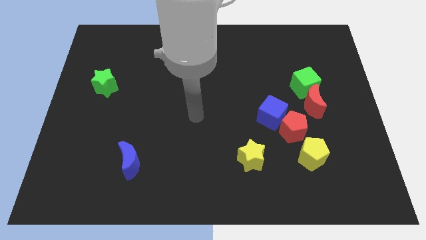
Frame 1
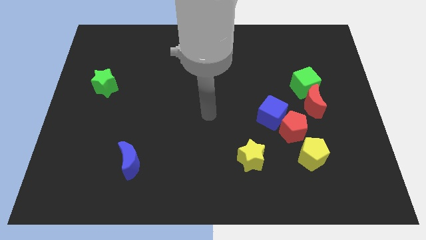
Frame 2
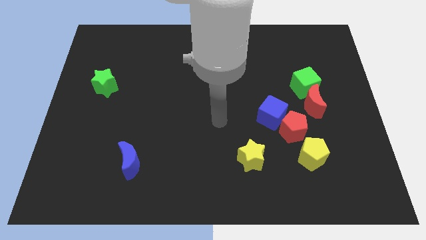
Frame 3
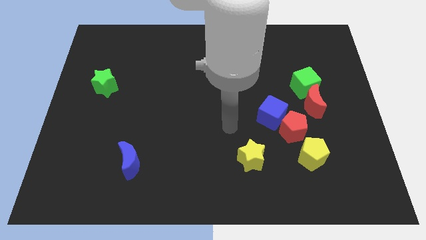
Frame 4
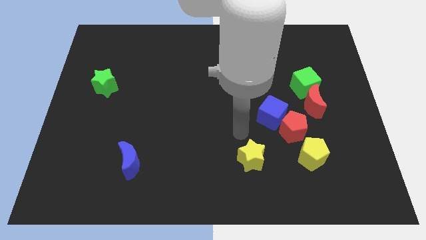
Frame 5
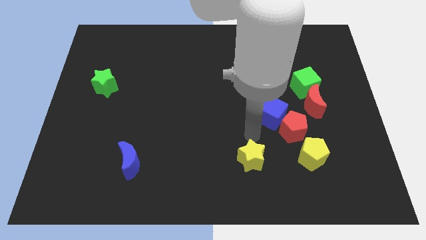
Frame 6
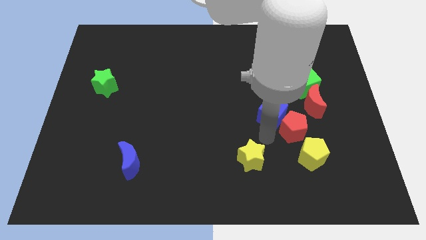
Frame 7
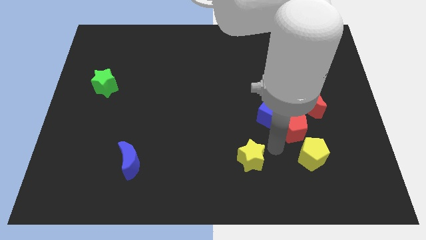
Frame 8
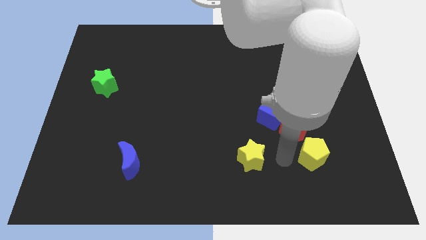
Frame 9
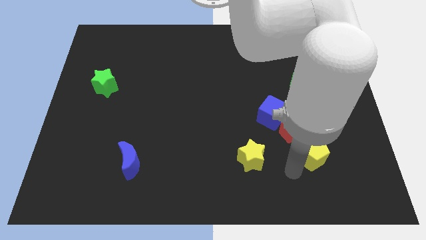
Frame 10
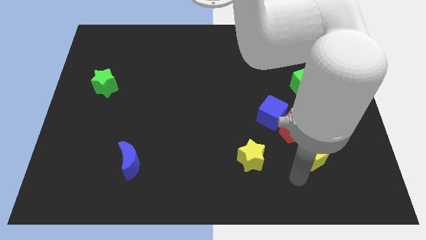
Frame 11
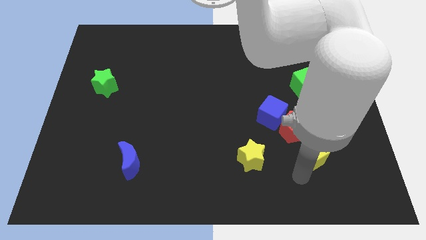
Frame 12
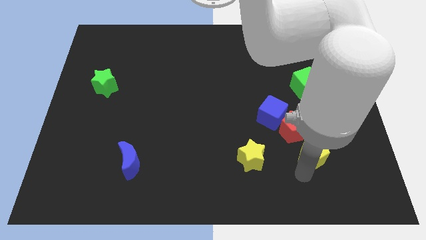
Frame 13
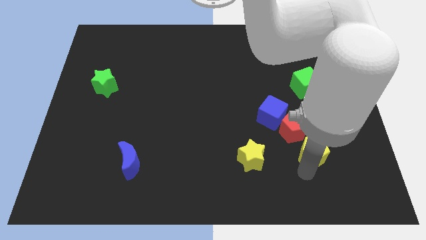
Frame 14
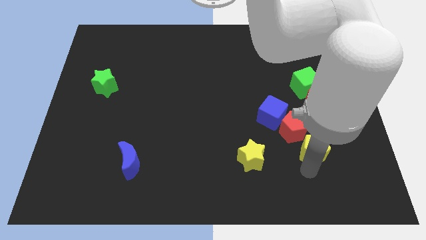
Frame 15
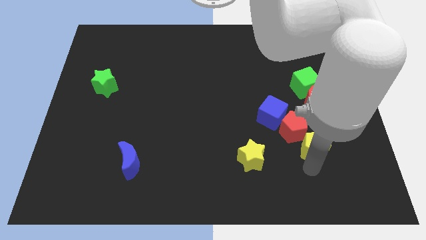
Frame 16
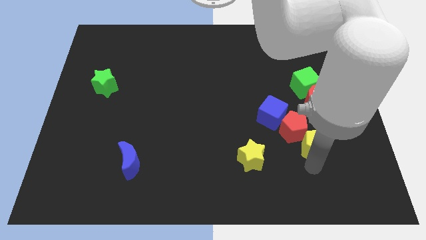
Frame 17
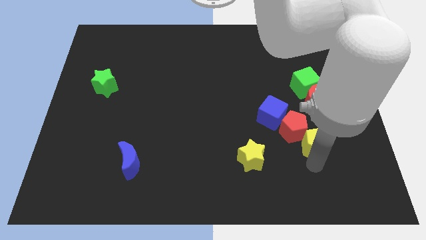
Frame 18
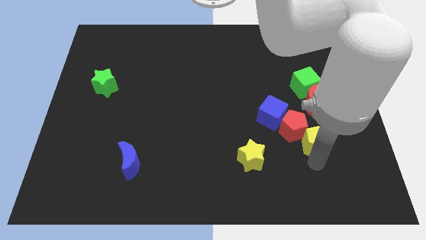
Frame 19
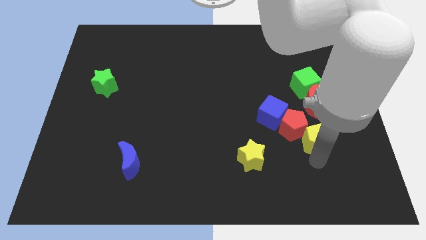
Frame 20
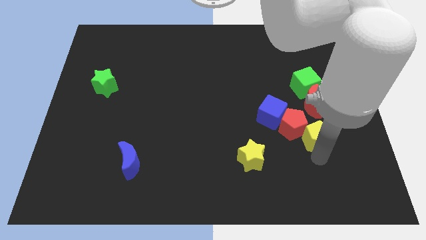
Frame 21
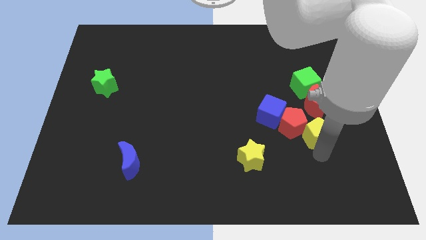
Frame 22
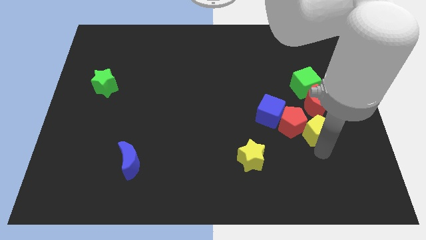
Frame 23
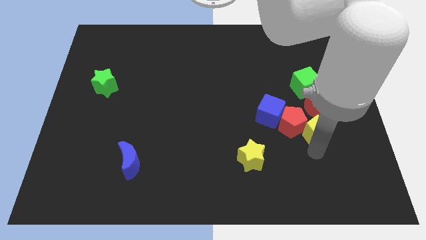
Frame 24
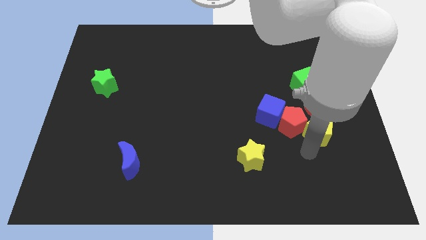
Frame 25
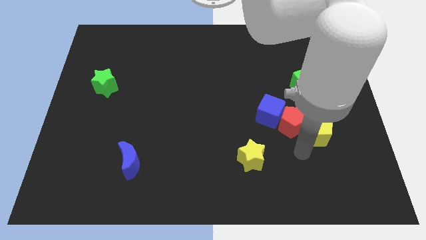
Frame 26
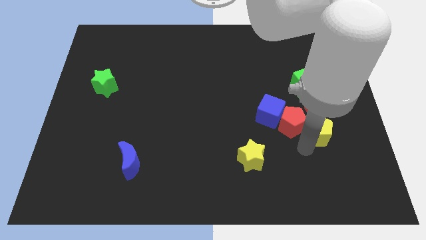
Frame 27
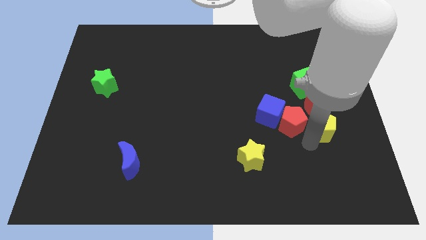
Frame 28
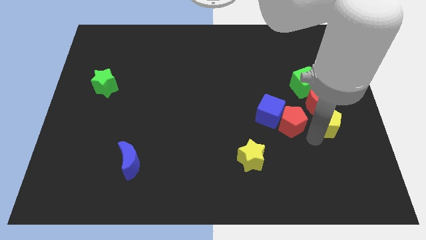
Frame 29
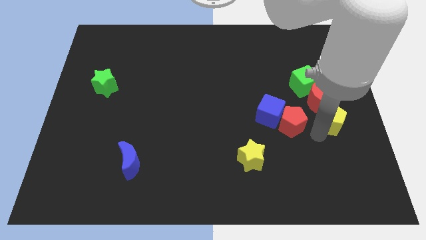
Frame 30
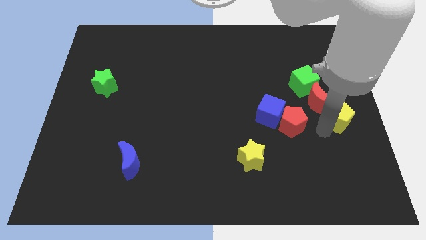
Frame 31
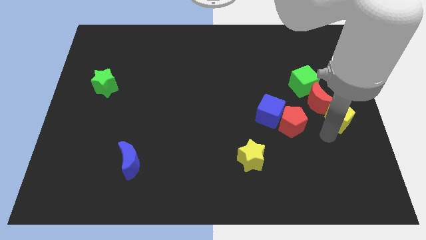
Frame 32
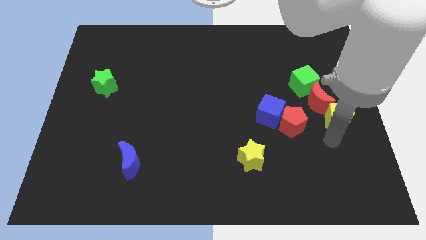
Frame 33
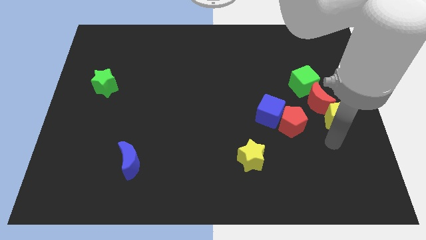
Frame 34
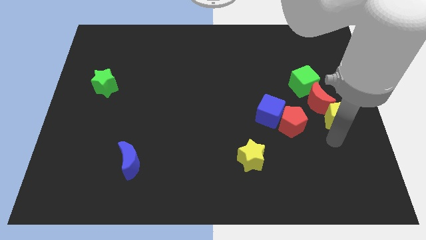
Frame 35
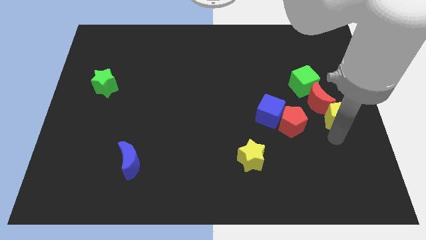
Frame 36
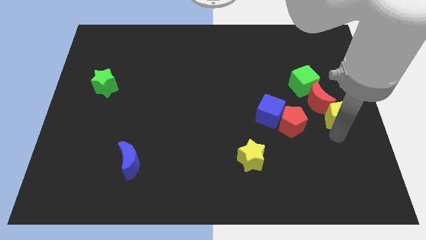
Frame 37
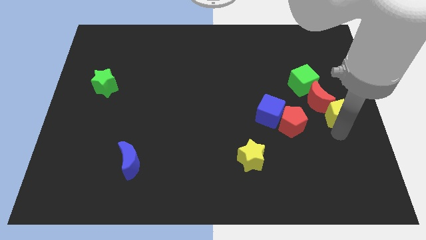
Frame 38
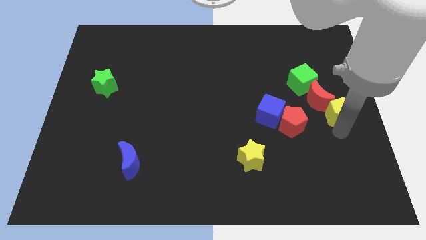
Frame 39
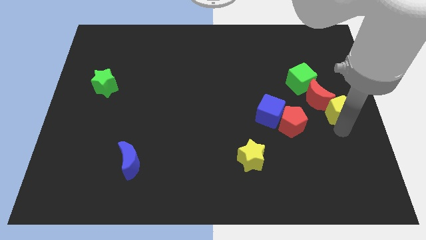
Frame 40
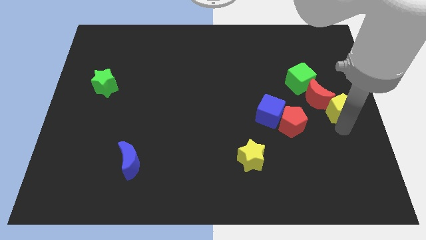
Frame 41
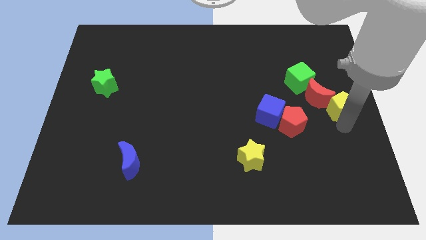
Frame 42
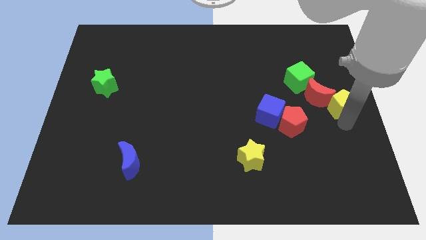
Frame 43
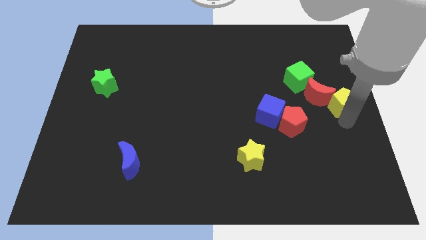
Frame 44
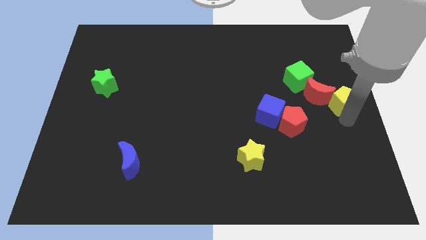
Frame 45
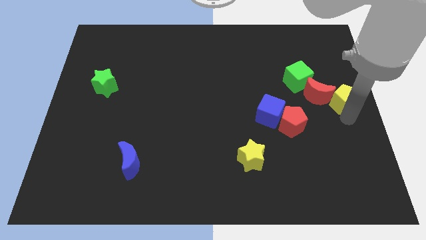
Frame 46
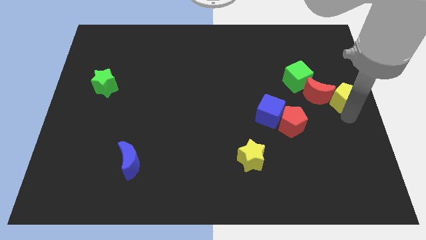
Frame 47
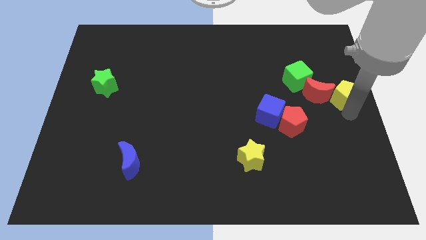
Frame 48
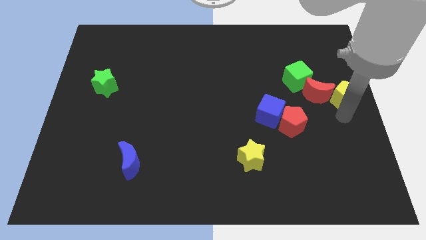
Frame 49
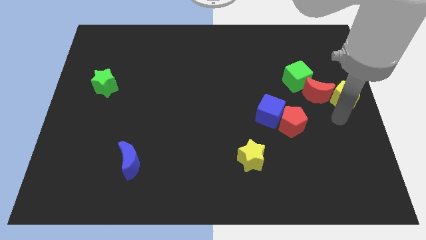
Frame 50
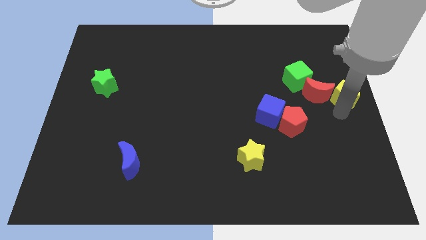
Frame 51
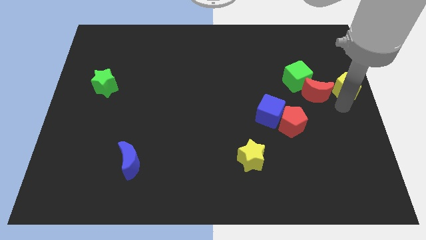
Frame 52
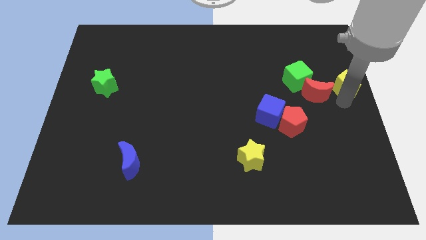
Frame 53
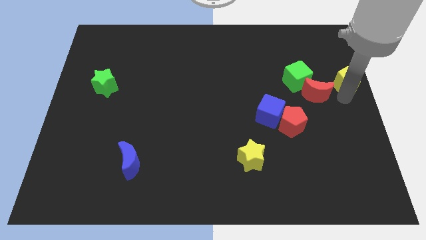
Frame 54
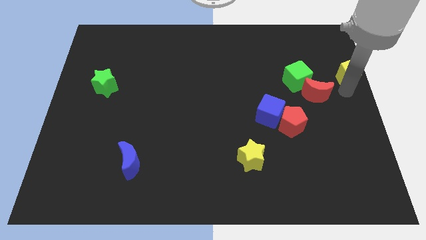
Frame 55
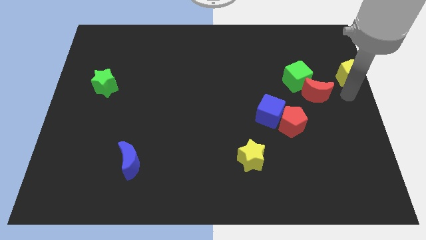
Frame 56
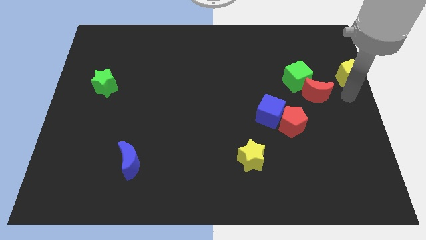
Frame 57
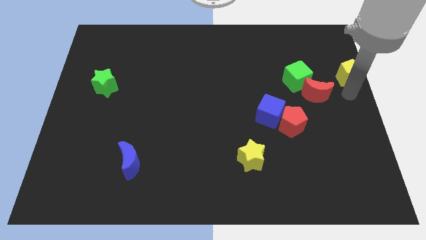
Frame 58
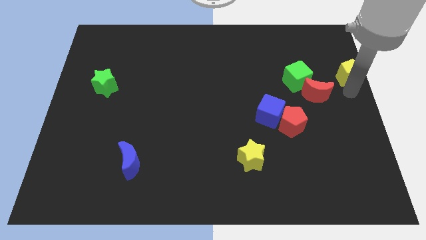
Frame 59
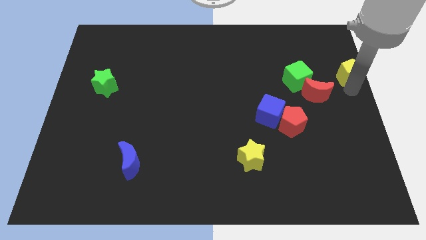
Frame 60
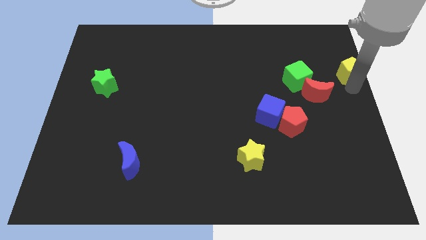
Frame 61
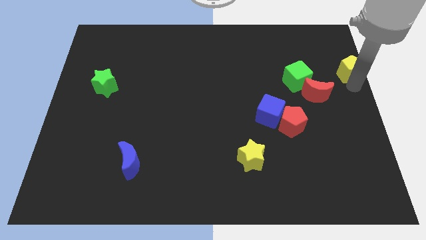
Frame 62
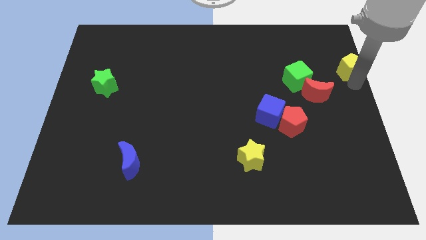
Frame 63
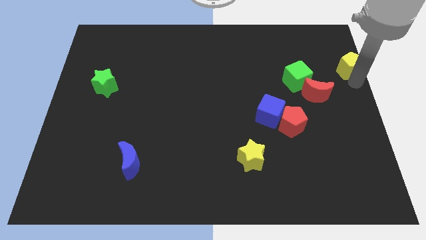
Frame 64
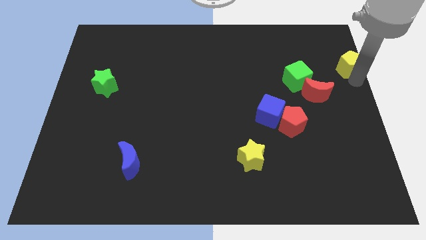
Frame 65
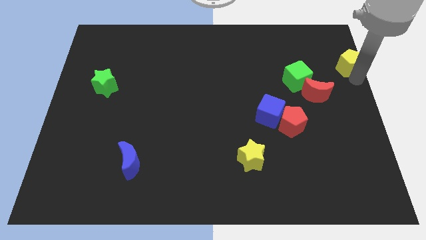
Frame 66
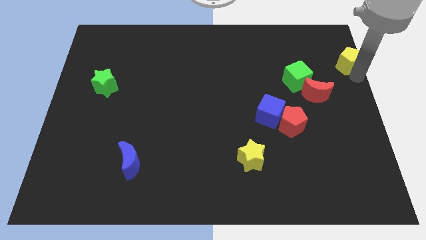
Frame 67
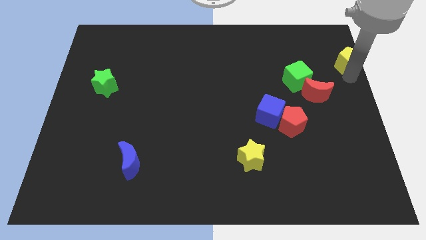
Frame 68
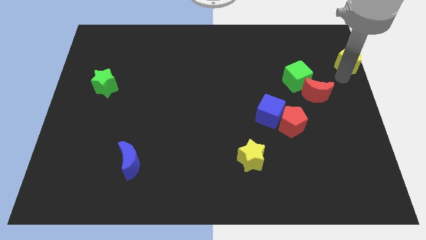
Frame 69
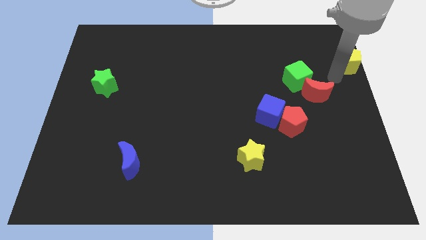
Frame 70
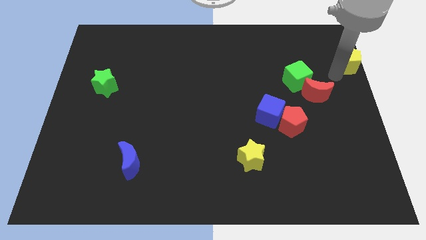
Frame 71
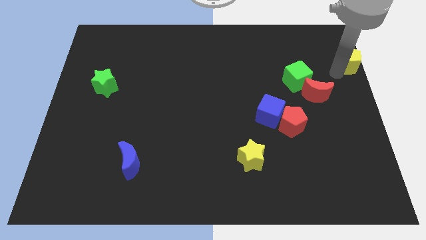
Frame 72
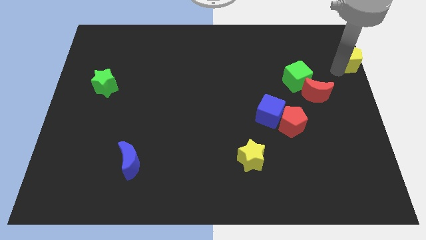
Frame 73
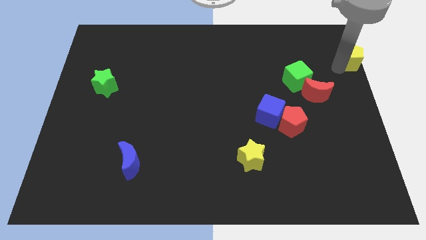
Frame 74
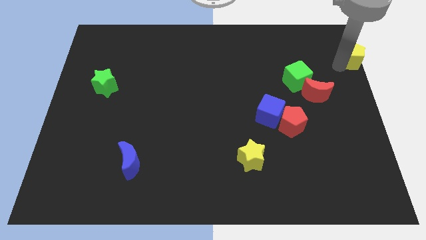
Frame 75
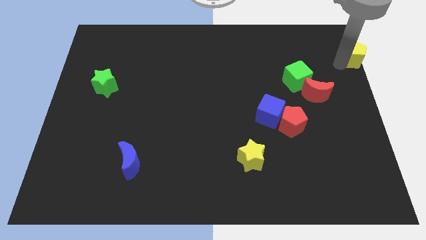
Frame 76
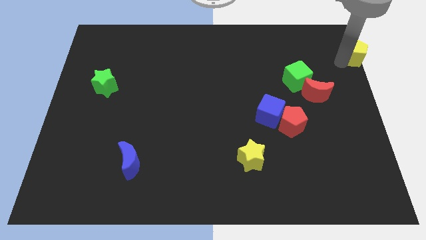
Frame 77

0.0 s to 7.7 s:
push the yellow pentagon to the top right
